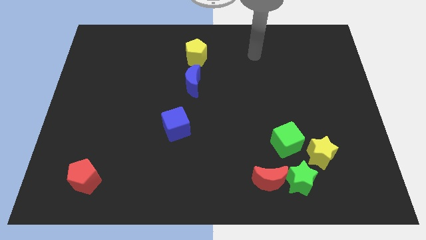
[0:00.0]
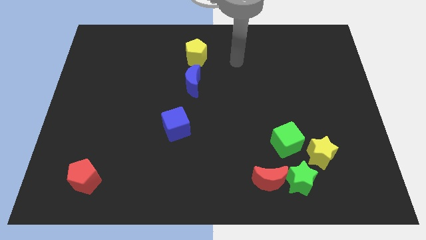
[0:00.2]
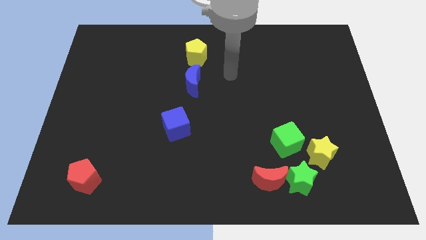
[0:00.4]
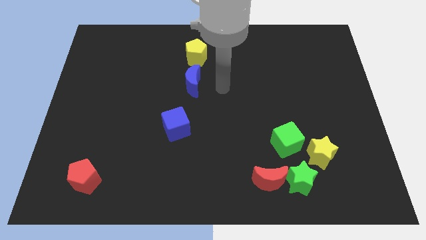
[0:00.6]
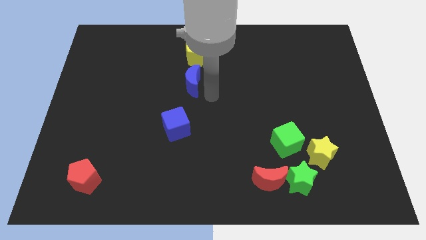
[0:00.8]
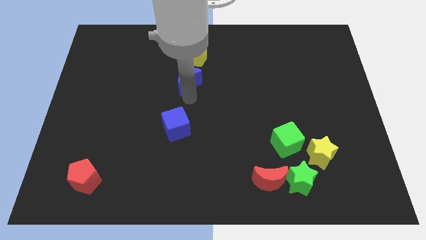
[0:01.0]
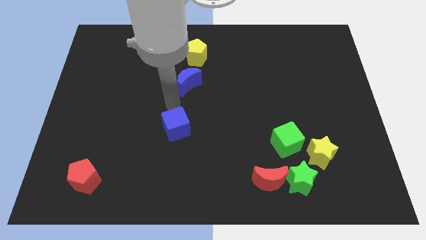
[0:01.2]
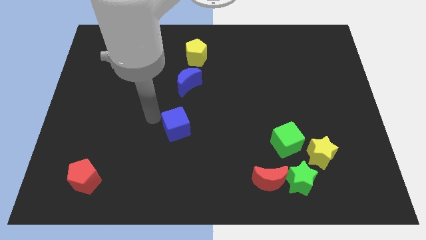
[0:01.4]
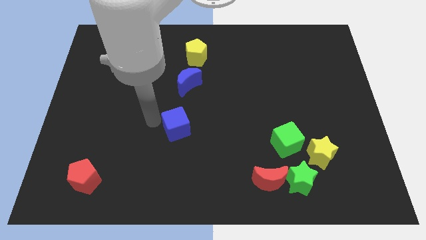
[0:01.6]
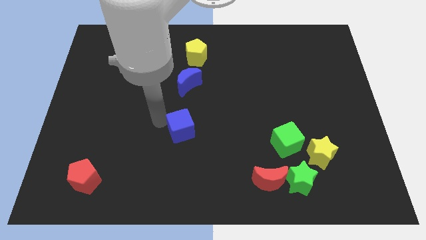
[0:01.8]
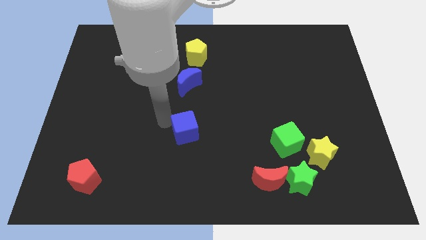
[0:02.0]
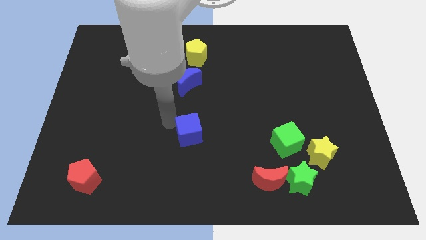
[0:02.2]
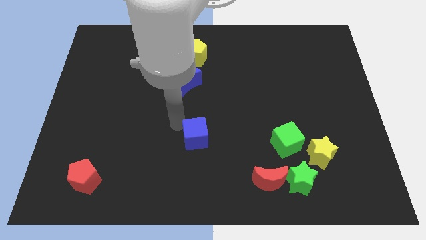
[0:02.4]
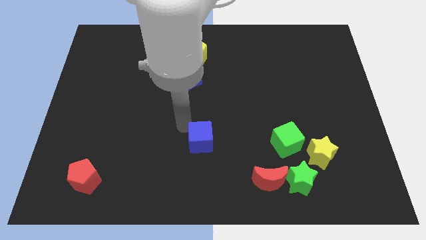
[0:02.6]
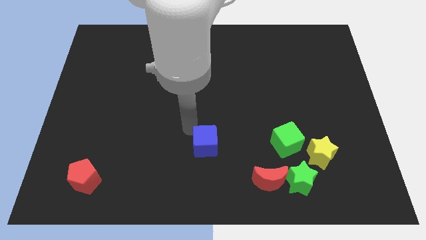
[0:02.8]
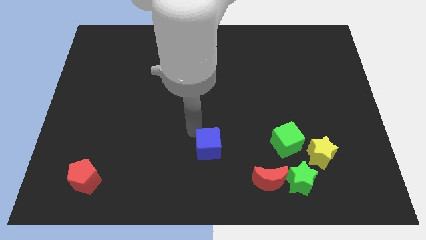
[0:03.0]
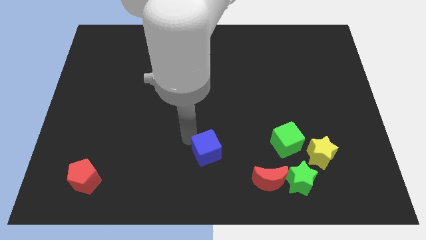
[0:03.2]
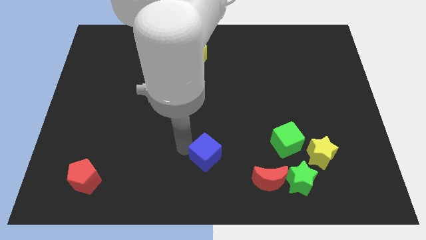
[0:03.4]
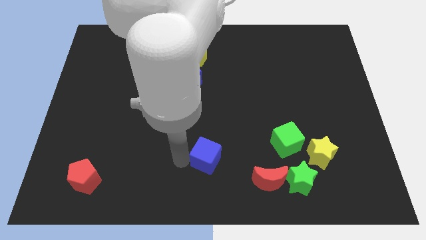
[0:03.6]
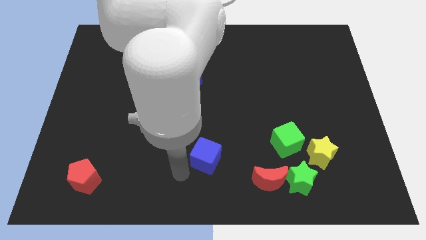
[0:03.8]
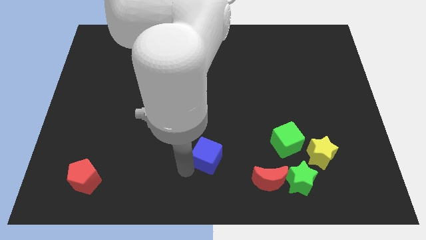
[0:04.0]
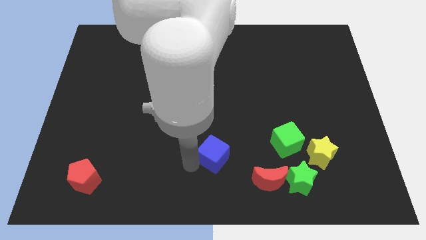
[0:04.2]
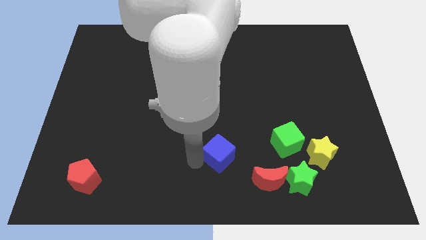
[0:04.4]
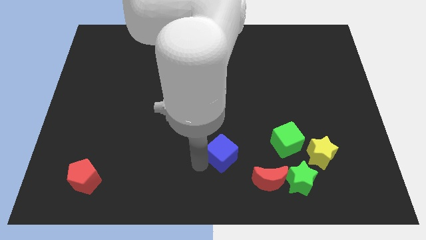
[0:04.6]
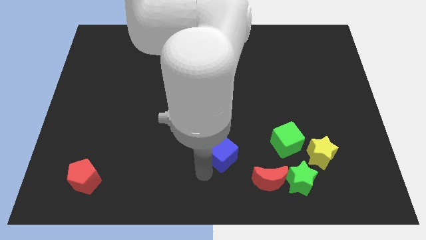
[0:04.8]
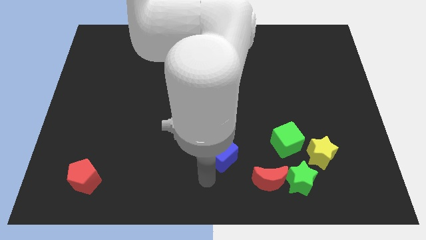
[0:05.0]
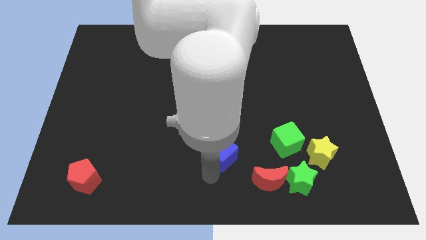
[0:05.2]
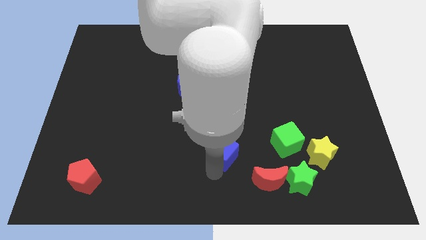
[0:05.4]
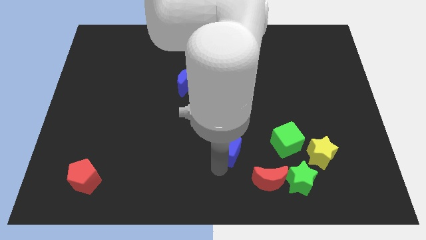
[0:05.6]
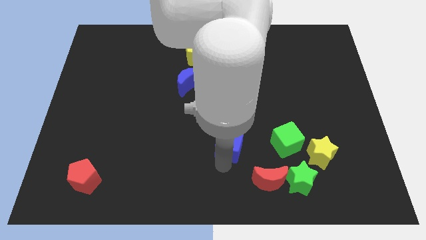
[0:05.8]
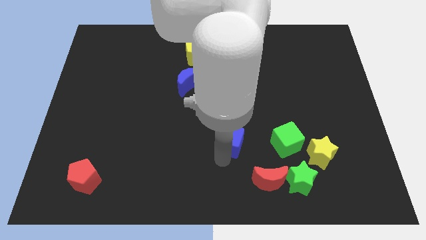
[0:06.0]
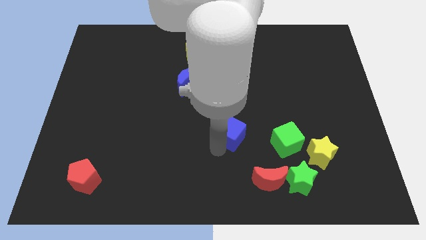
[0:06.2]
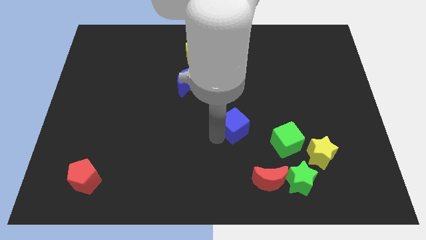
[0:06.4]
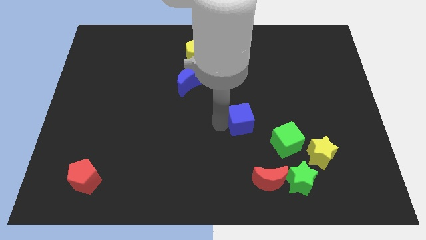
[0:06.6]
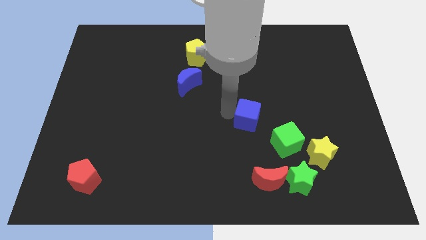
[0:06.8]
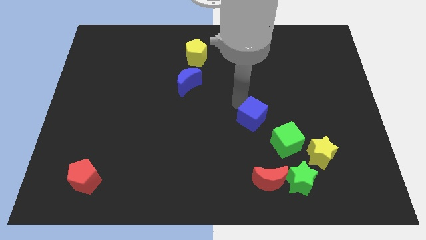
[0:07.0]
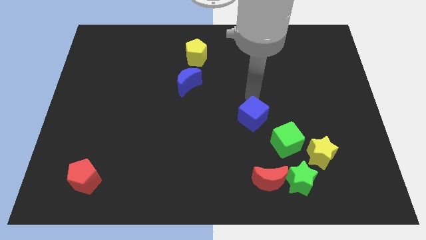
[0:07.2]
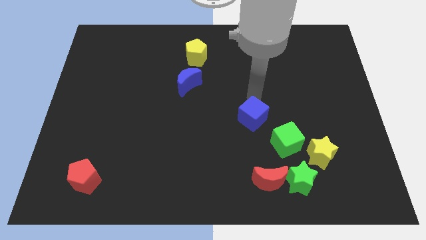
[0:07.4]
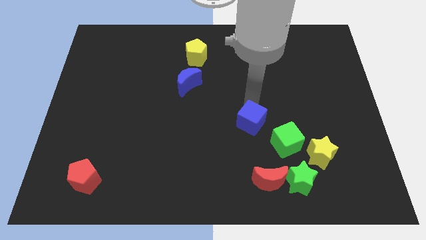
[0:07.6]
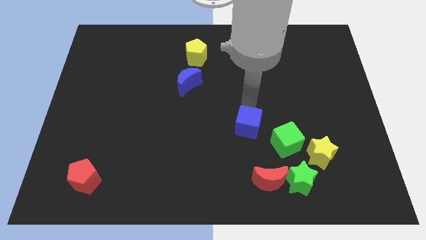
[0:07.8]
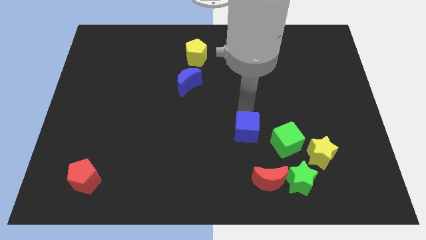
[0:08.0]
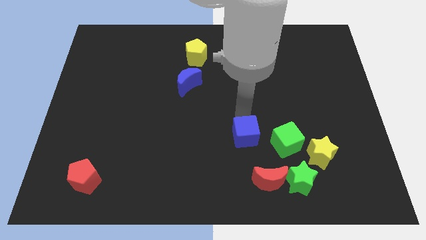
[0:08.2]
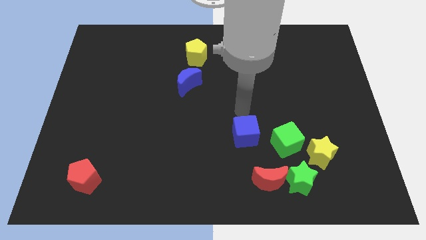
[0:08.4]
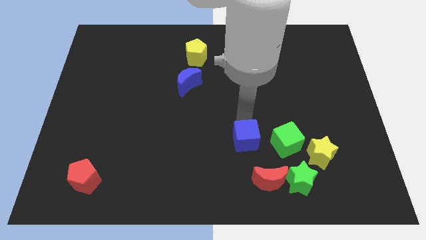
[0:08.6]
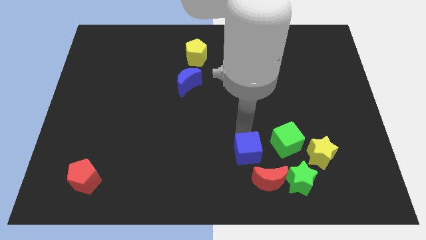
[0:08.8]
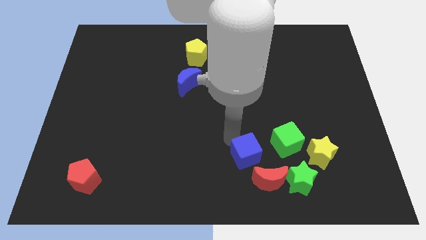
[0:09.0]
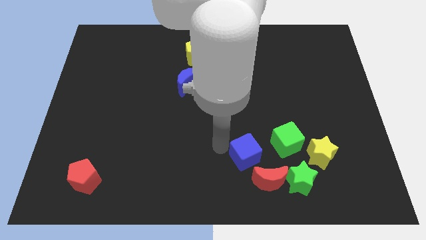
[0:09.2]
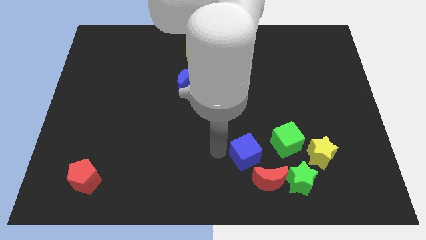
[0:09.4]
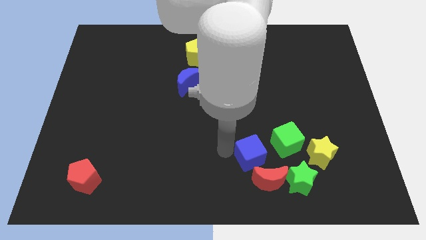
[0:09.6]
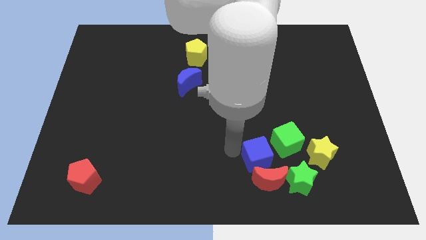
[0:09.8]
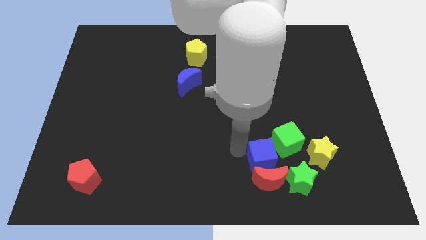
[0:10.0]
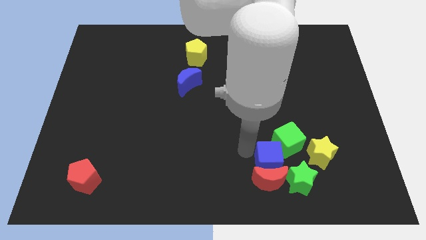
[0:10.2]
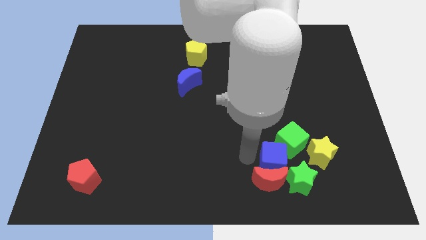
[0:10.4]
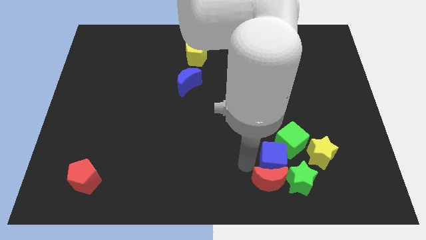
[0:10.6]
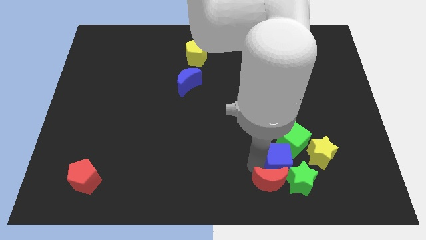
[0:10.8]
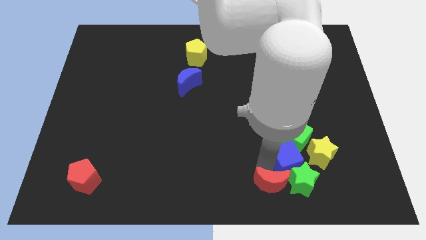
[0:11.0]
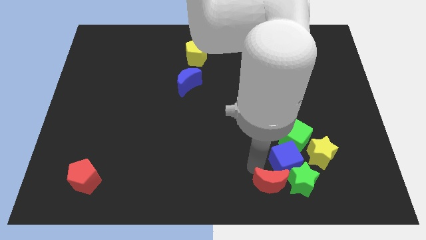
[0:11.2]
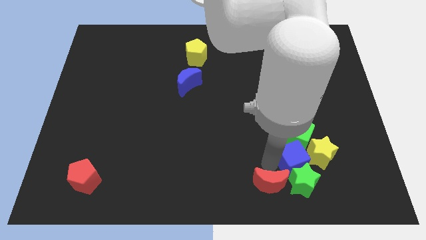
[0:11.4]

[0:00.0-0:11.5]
push the blue cube to the yellow star

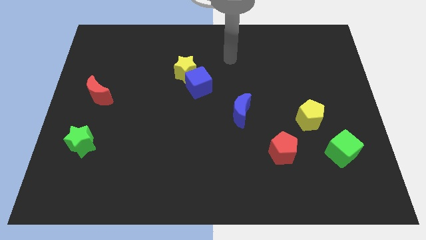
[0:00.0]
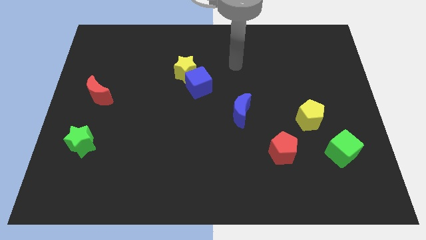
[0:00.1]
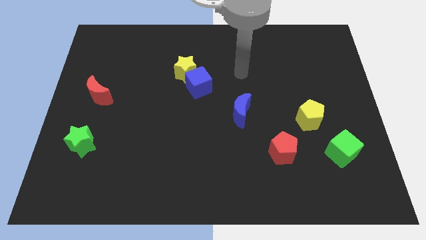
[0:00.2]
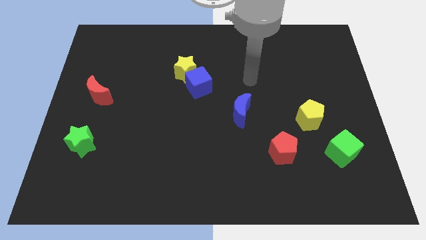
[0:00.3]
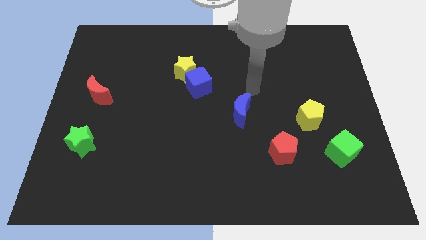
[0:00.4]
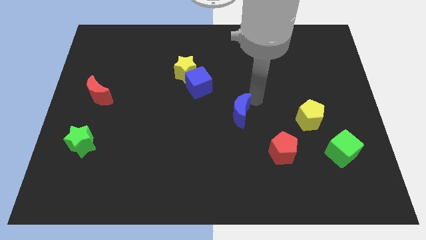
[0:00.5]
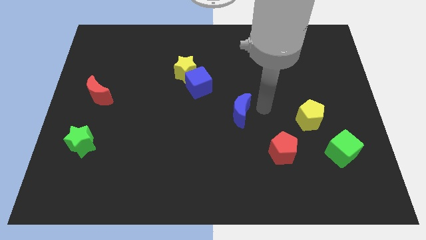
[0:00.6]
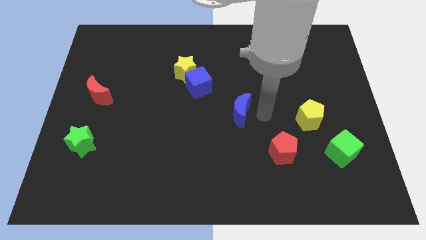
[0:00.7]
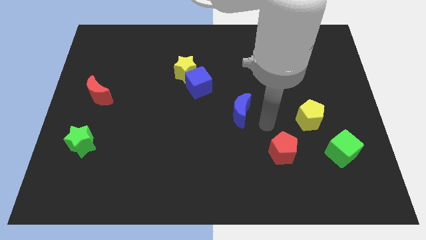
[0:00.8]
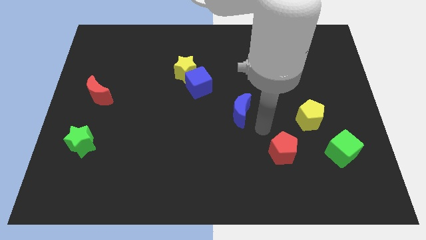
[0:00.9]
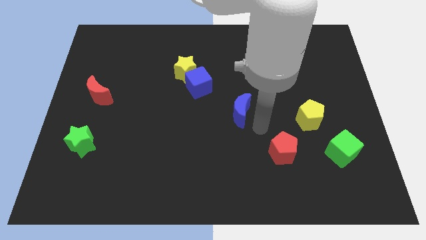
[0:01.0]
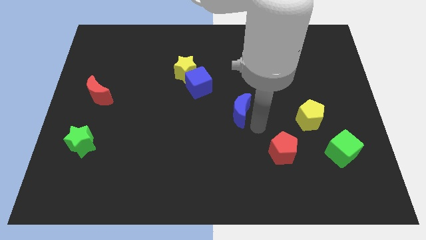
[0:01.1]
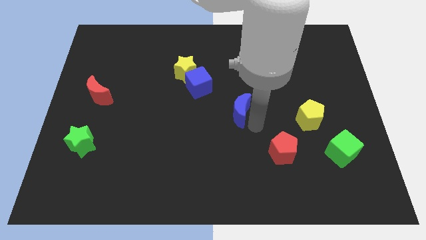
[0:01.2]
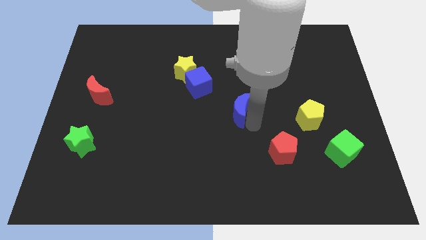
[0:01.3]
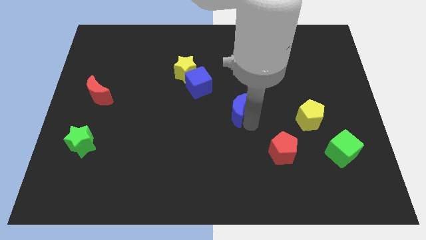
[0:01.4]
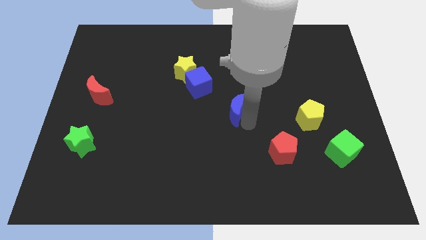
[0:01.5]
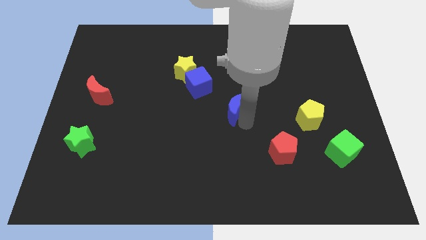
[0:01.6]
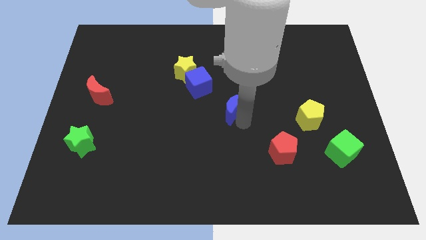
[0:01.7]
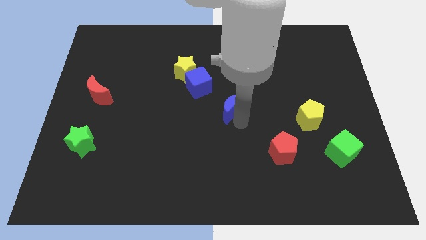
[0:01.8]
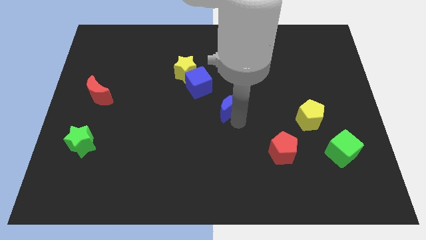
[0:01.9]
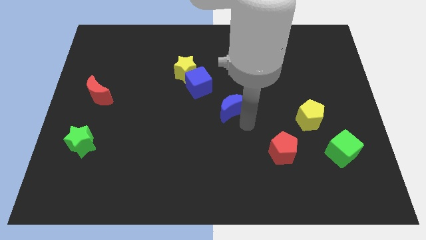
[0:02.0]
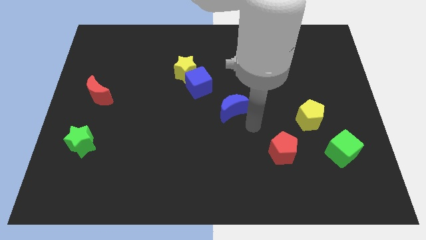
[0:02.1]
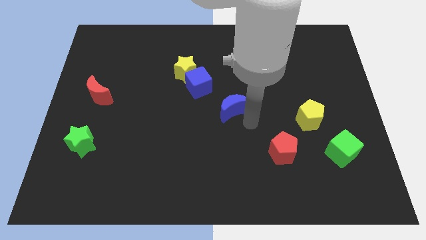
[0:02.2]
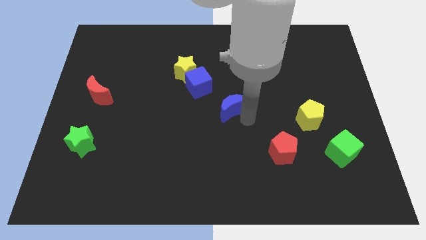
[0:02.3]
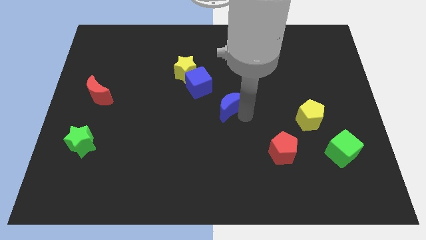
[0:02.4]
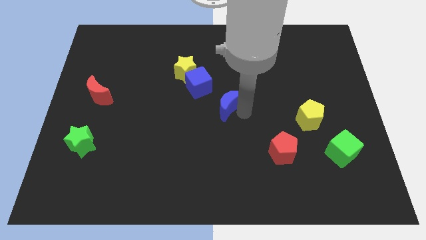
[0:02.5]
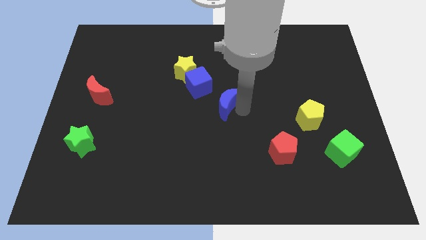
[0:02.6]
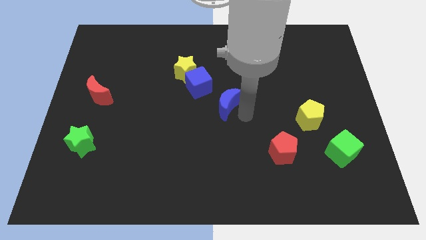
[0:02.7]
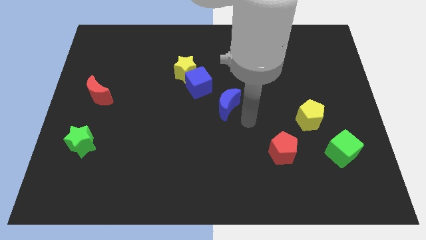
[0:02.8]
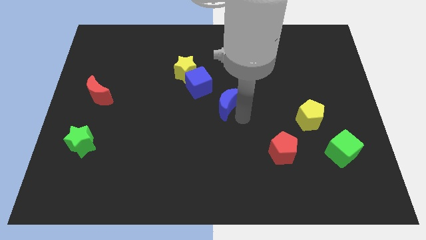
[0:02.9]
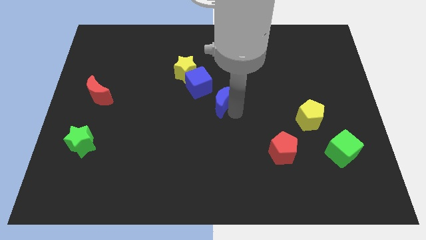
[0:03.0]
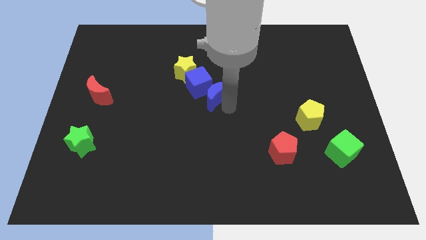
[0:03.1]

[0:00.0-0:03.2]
push the blue moon towards the blue cube

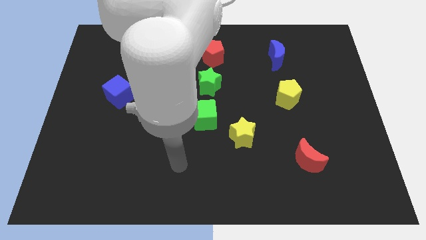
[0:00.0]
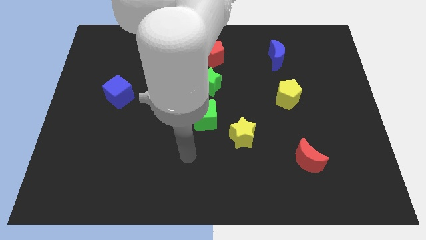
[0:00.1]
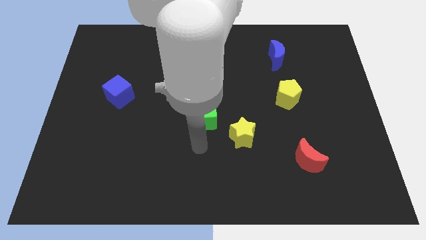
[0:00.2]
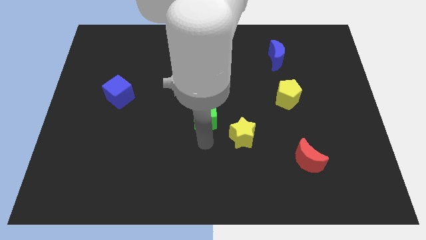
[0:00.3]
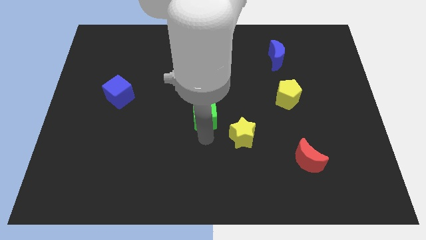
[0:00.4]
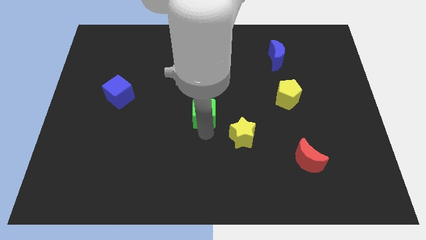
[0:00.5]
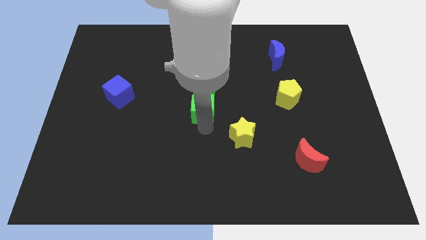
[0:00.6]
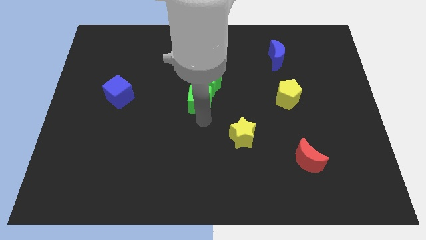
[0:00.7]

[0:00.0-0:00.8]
move the green cube next to the green star
